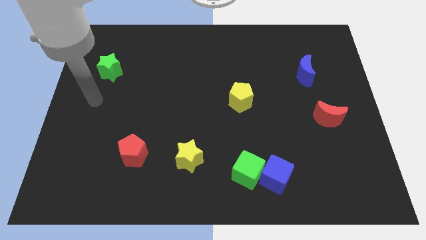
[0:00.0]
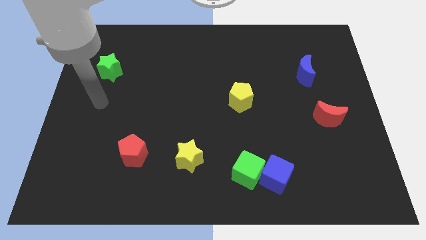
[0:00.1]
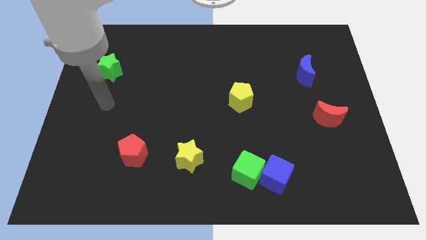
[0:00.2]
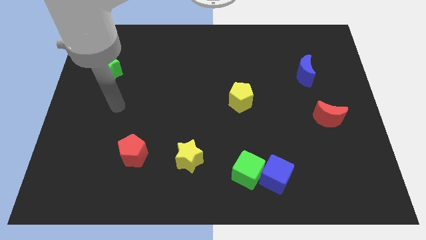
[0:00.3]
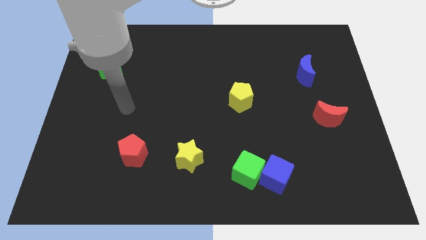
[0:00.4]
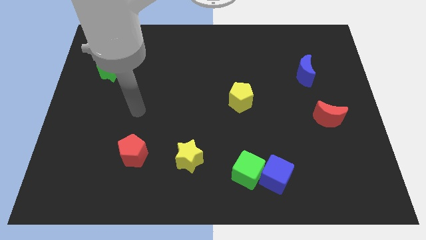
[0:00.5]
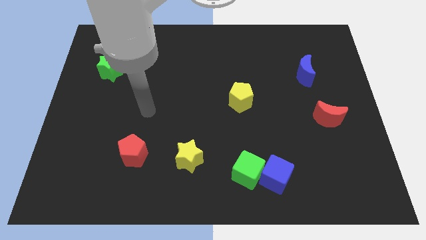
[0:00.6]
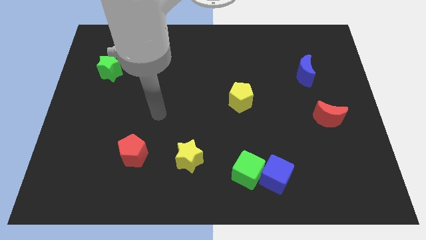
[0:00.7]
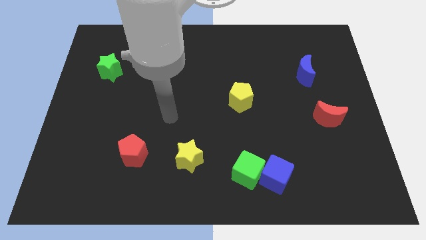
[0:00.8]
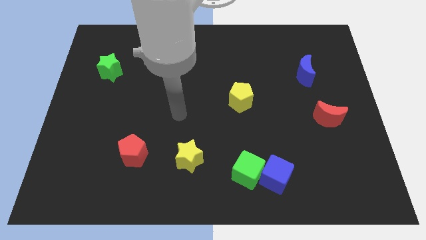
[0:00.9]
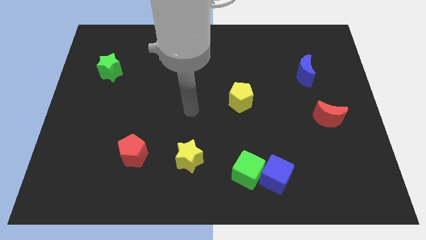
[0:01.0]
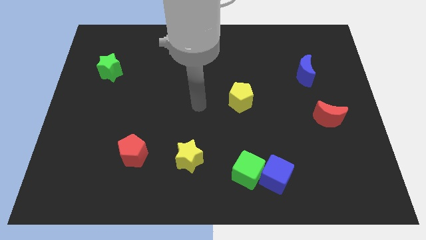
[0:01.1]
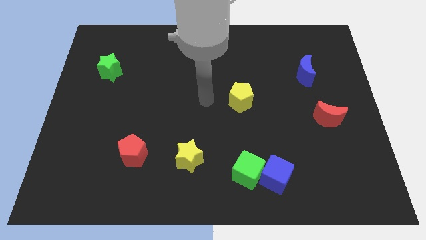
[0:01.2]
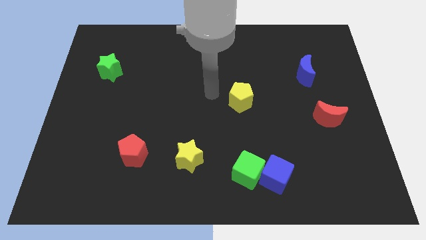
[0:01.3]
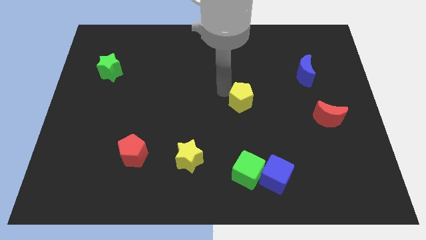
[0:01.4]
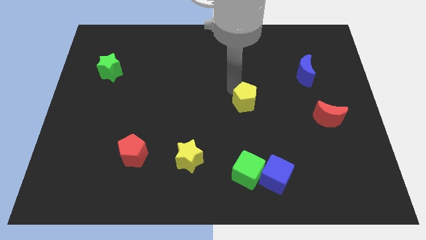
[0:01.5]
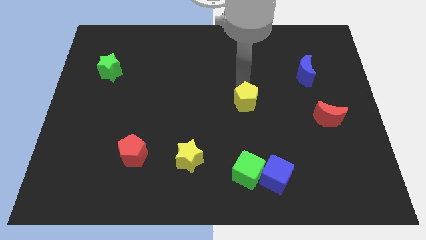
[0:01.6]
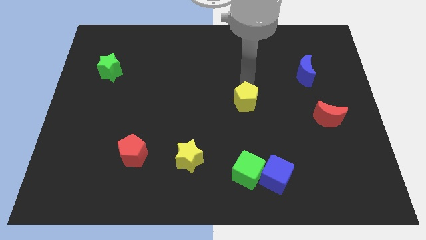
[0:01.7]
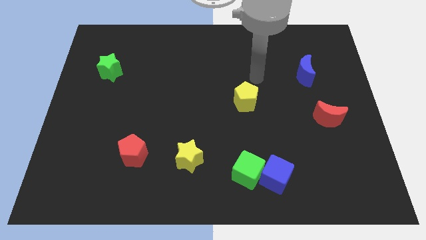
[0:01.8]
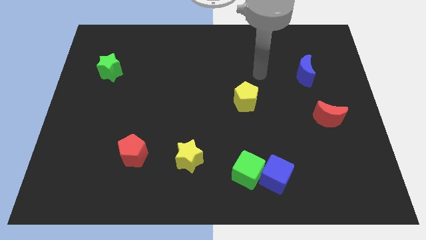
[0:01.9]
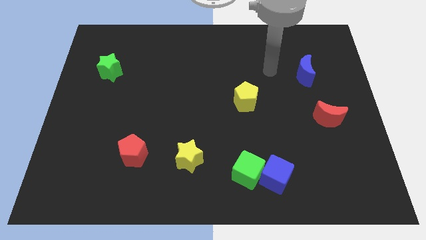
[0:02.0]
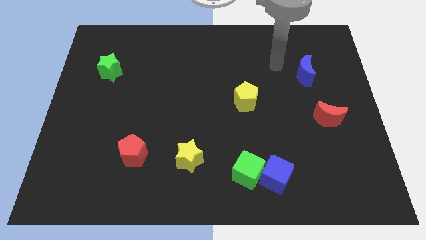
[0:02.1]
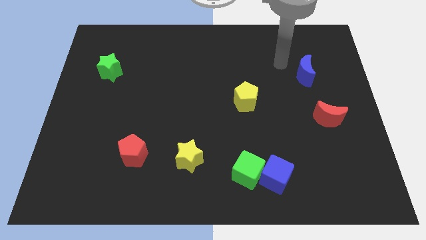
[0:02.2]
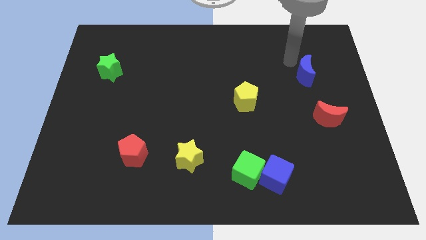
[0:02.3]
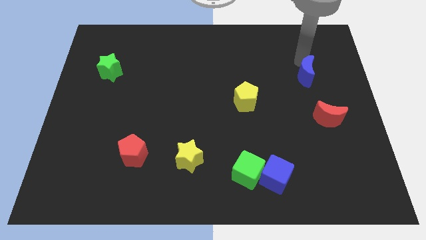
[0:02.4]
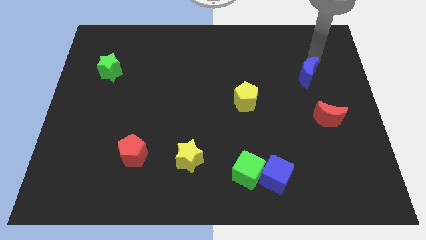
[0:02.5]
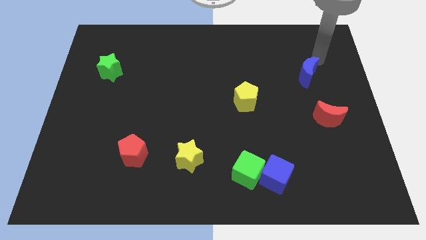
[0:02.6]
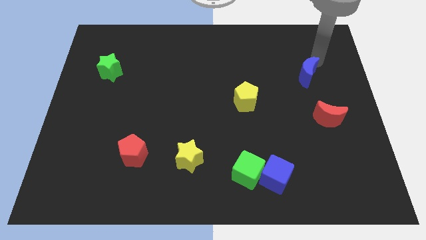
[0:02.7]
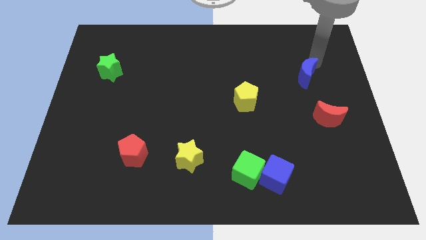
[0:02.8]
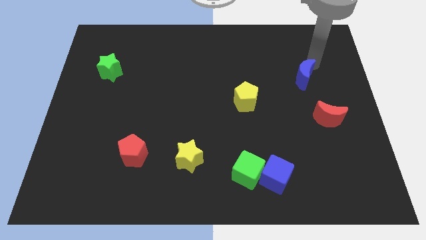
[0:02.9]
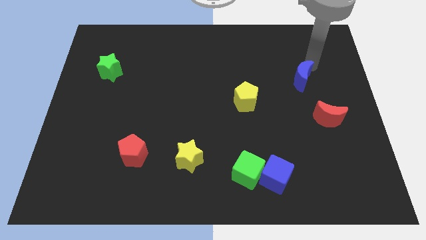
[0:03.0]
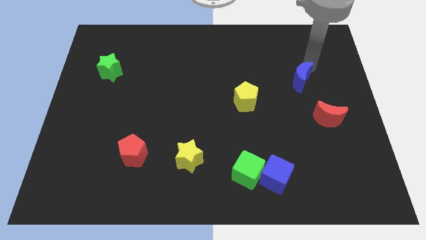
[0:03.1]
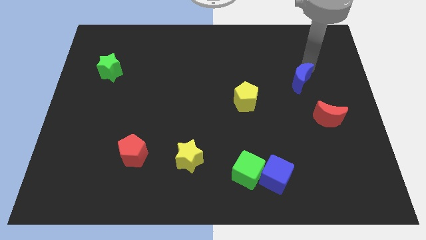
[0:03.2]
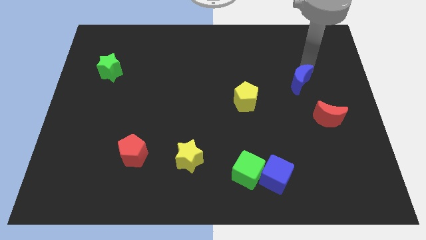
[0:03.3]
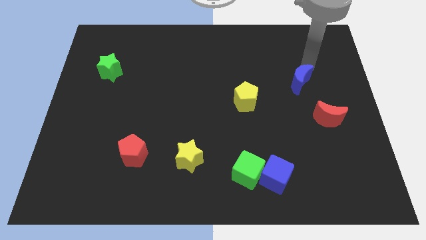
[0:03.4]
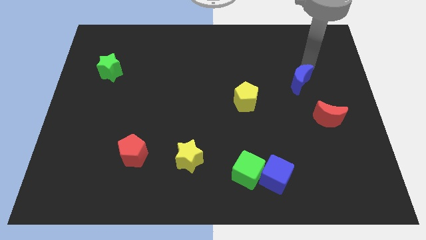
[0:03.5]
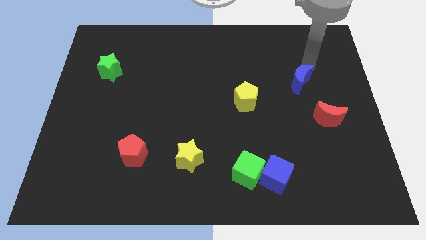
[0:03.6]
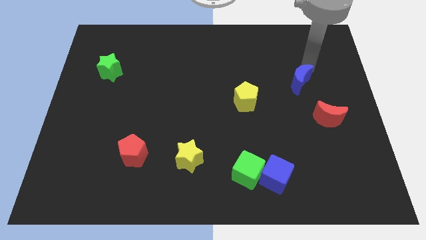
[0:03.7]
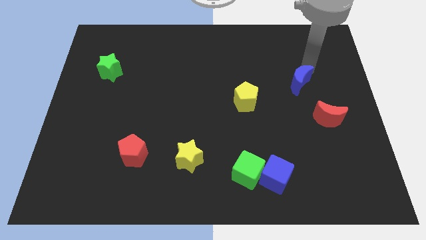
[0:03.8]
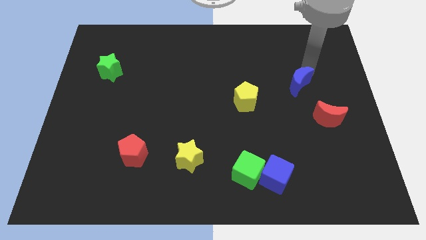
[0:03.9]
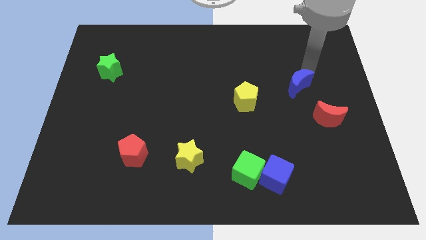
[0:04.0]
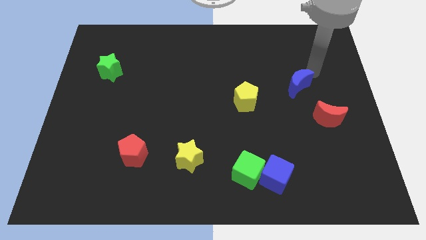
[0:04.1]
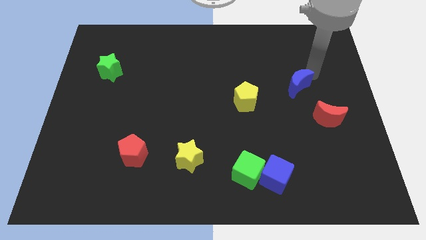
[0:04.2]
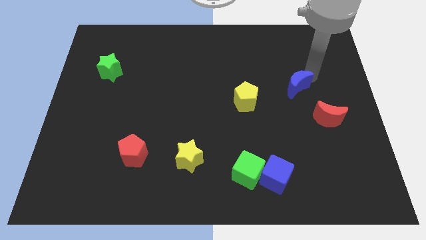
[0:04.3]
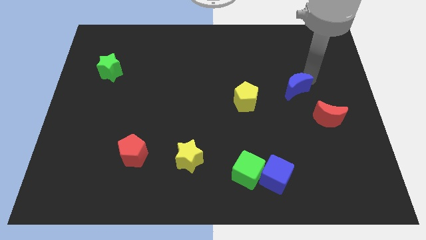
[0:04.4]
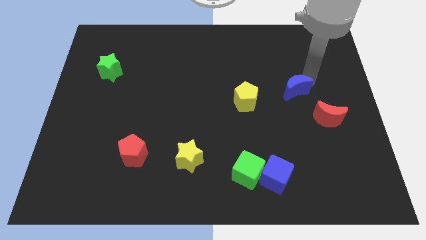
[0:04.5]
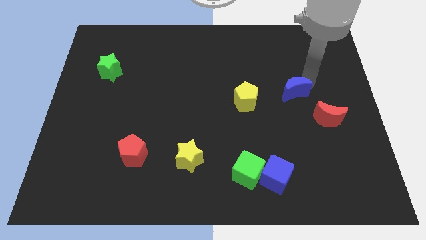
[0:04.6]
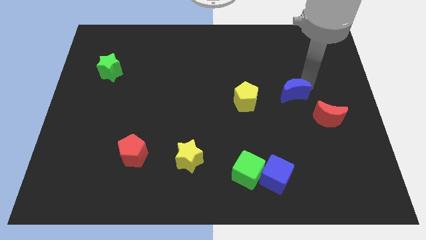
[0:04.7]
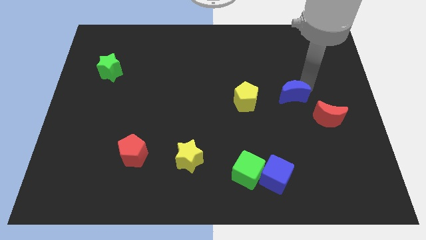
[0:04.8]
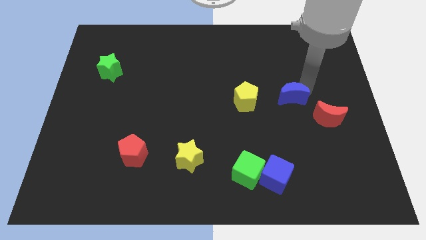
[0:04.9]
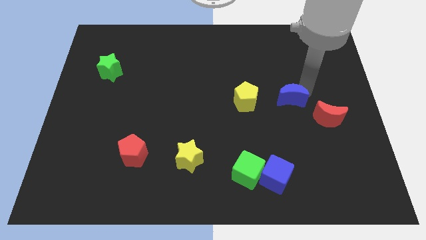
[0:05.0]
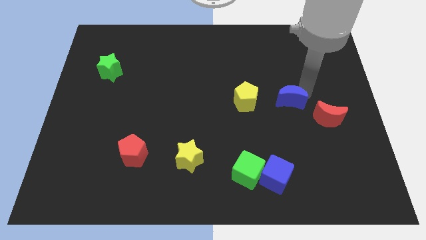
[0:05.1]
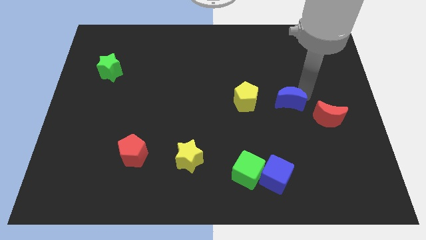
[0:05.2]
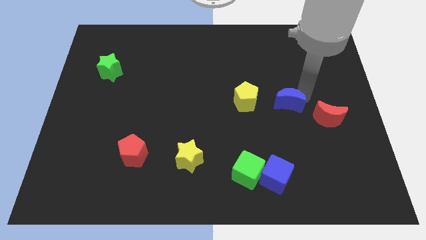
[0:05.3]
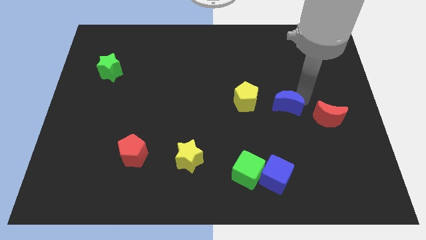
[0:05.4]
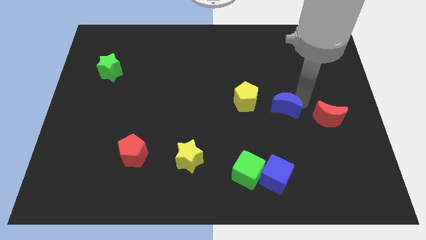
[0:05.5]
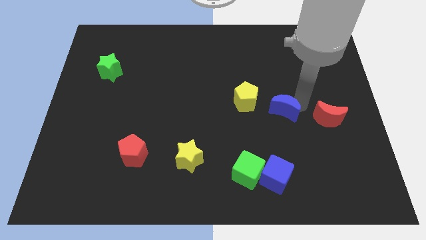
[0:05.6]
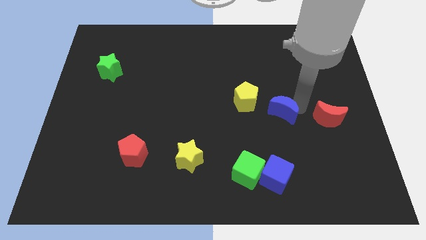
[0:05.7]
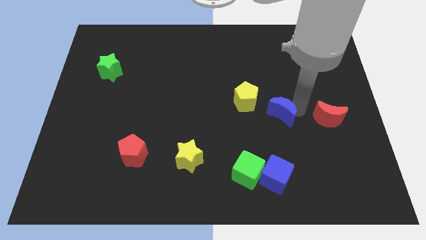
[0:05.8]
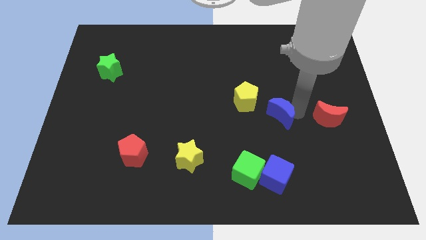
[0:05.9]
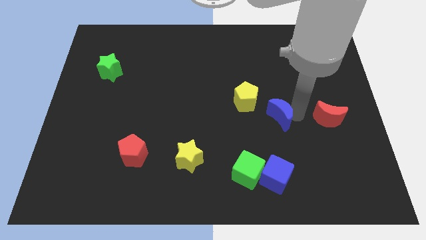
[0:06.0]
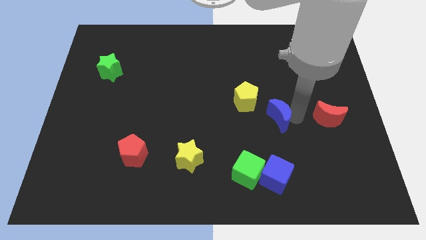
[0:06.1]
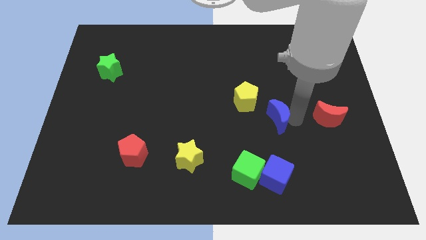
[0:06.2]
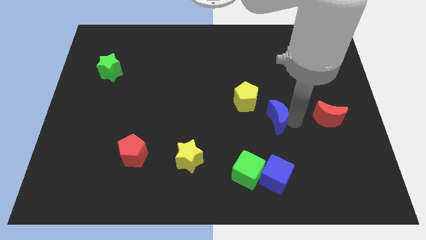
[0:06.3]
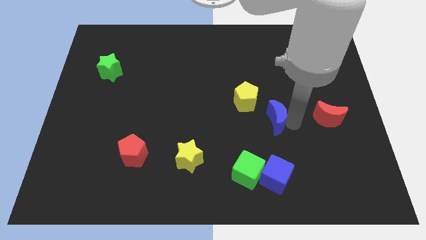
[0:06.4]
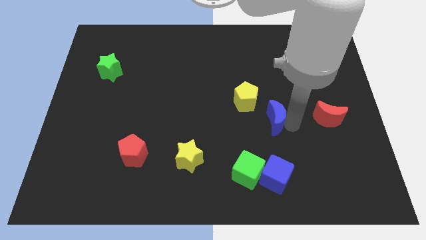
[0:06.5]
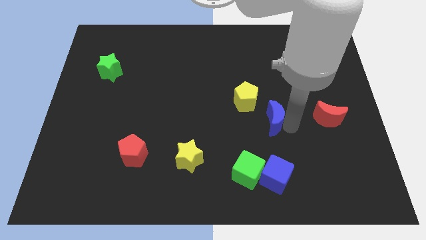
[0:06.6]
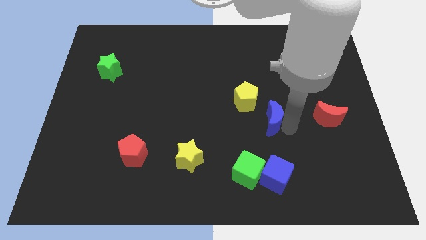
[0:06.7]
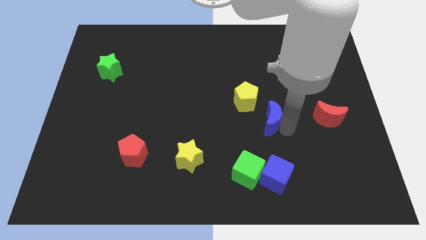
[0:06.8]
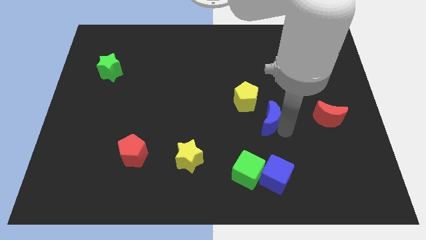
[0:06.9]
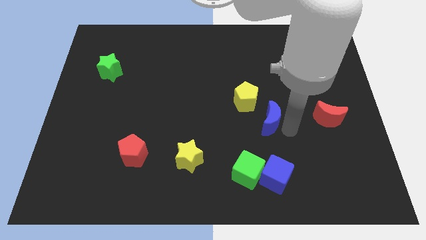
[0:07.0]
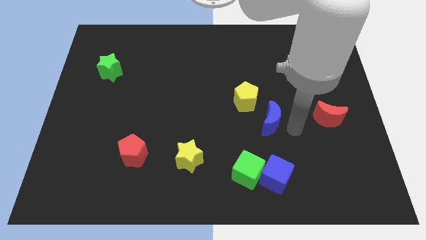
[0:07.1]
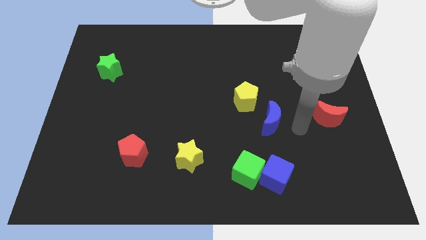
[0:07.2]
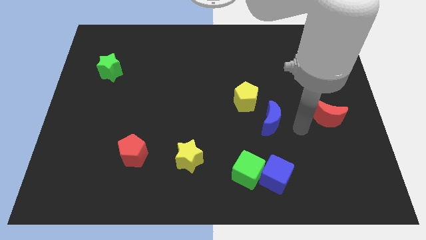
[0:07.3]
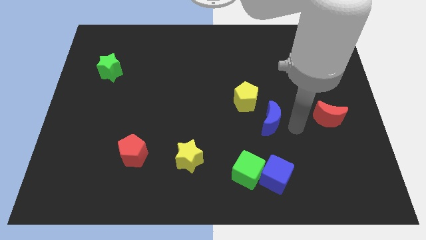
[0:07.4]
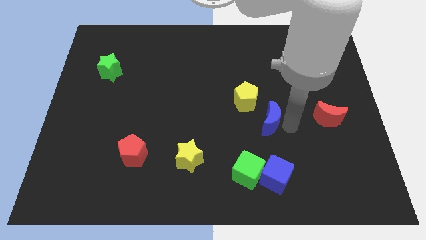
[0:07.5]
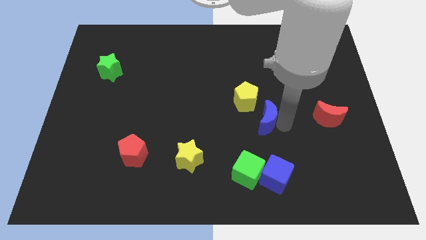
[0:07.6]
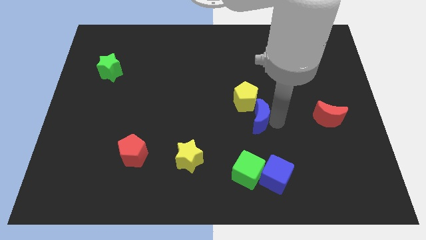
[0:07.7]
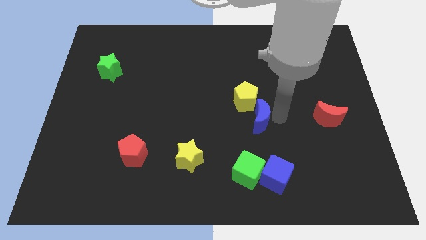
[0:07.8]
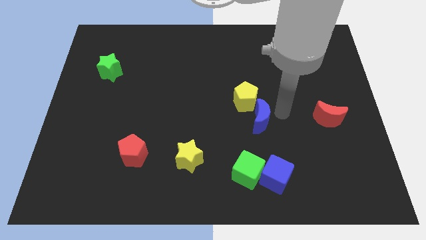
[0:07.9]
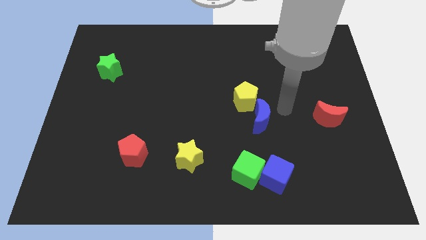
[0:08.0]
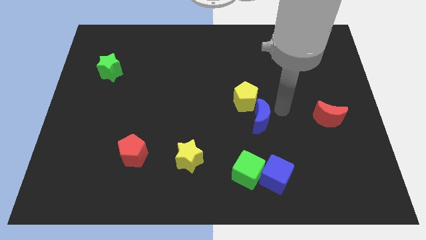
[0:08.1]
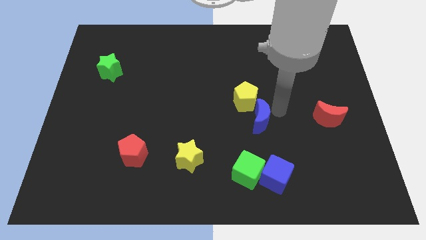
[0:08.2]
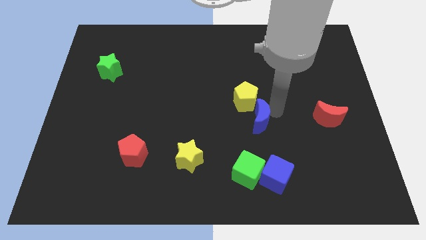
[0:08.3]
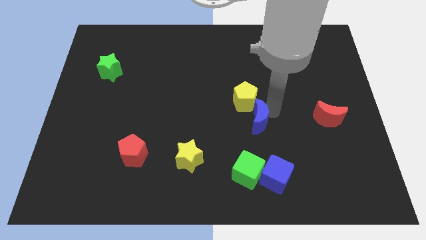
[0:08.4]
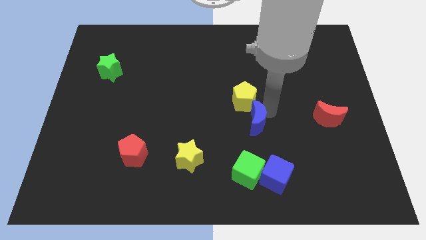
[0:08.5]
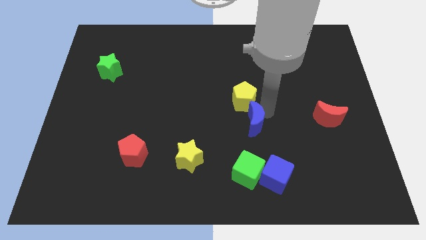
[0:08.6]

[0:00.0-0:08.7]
slide the blue moon down and then to the left
